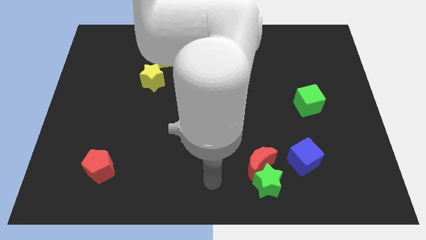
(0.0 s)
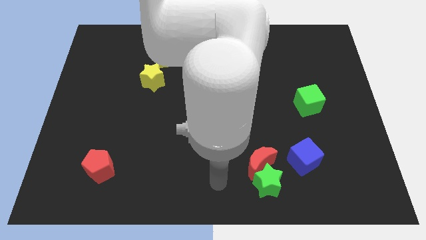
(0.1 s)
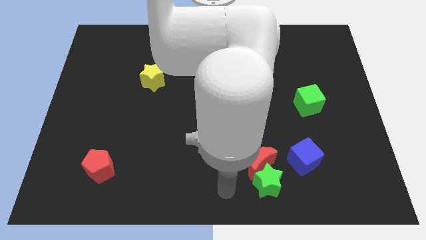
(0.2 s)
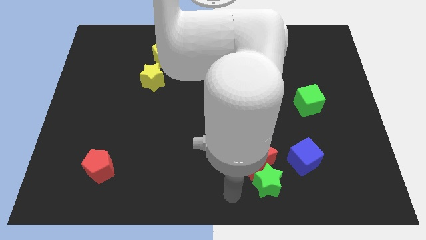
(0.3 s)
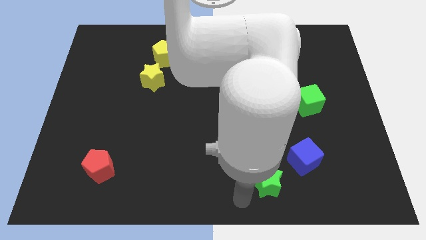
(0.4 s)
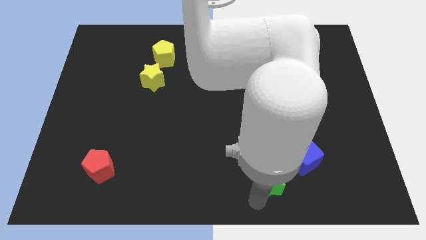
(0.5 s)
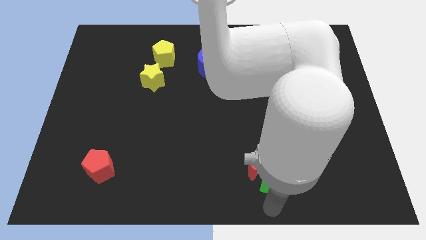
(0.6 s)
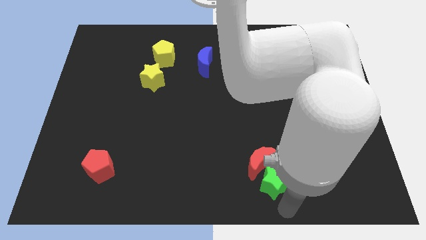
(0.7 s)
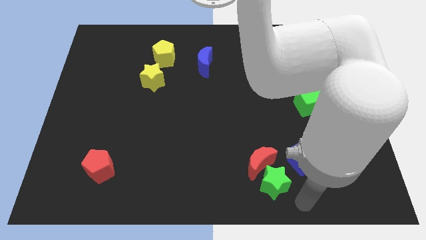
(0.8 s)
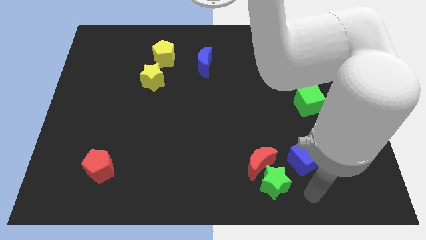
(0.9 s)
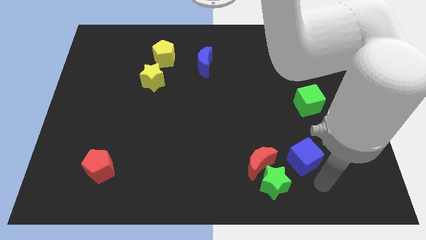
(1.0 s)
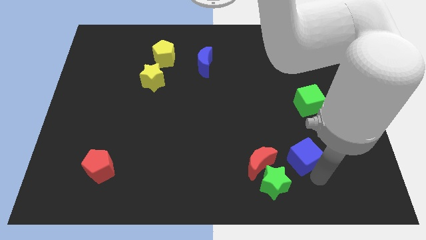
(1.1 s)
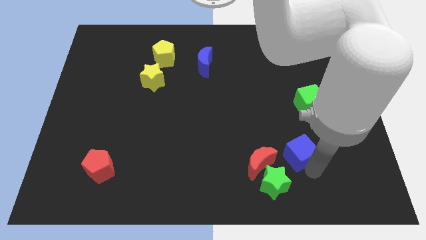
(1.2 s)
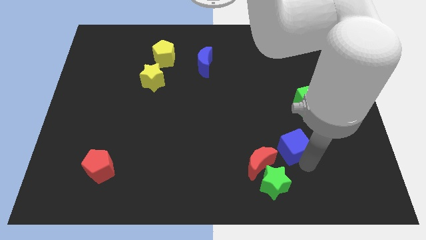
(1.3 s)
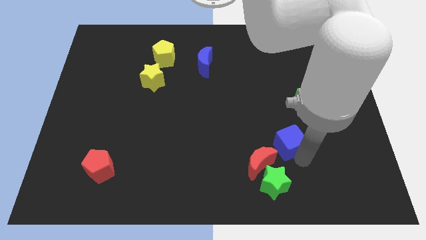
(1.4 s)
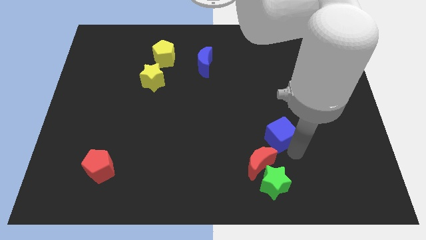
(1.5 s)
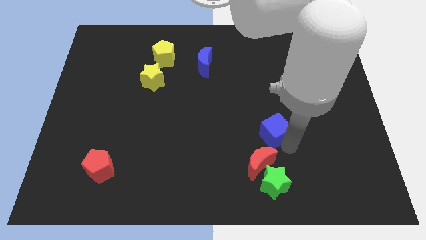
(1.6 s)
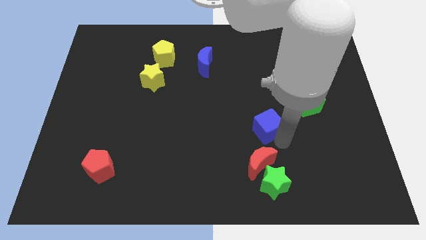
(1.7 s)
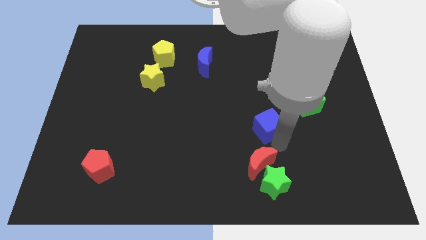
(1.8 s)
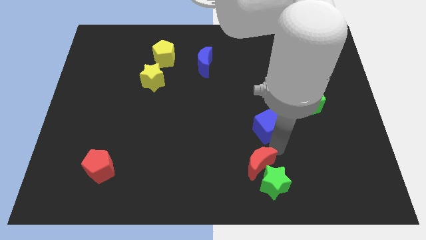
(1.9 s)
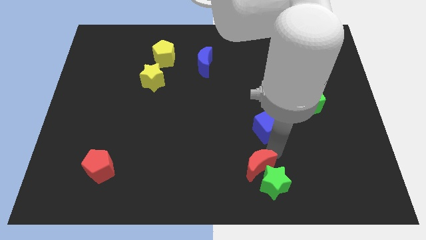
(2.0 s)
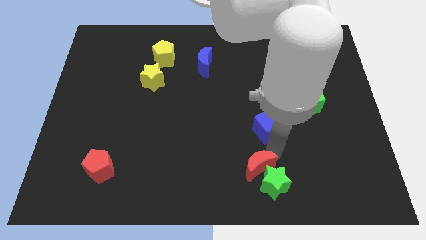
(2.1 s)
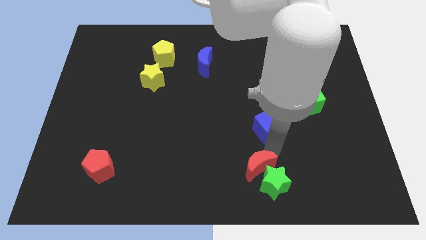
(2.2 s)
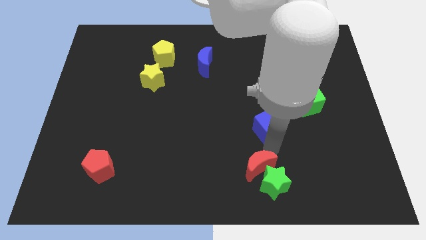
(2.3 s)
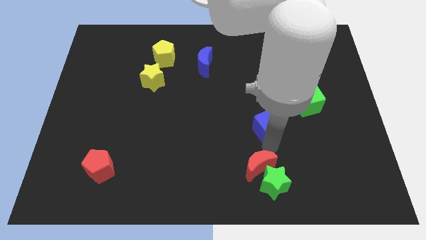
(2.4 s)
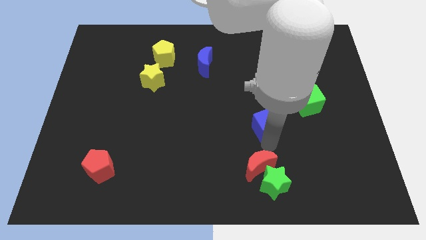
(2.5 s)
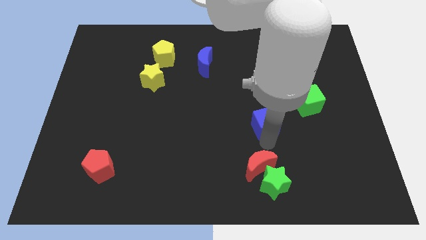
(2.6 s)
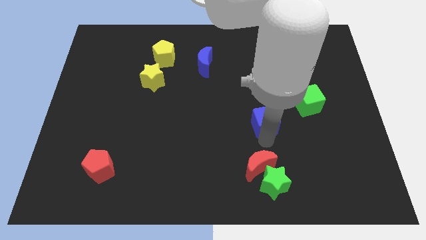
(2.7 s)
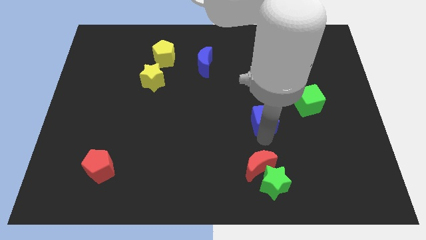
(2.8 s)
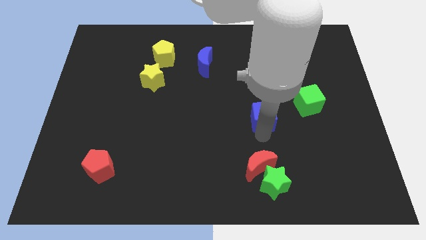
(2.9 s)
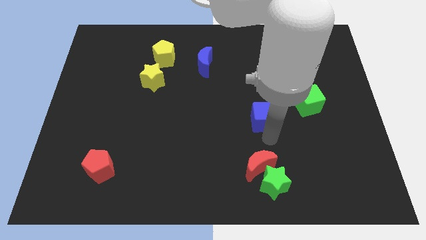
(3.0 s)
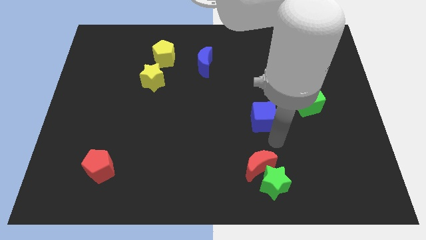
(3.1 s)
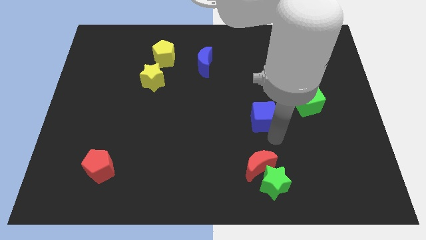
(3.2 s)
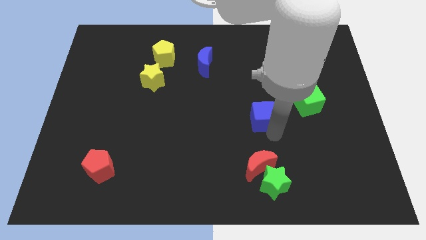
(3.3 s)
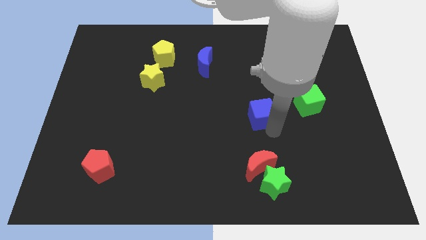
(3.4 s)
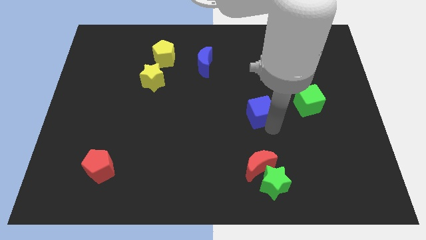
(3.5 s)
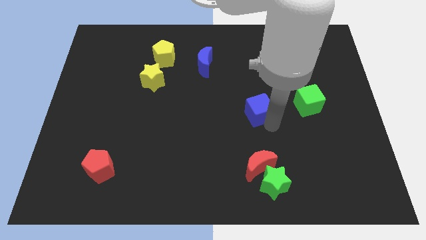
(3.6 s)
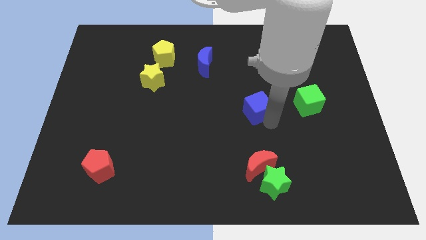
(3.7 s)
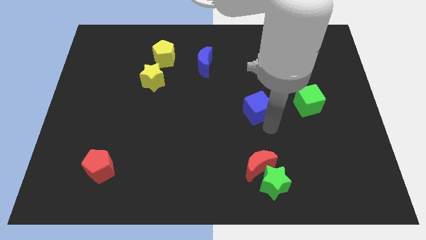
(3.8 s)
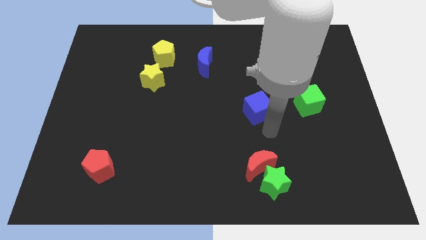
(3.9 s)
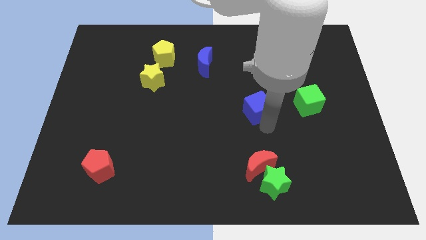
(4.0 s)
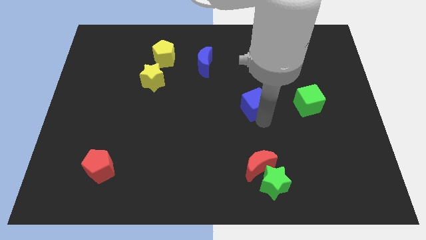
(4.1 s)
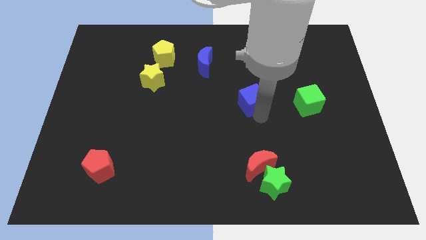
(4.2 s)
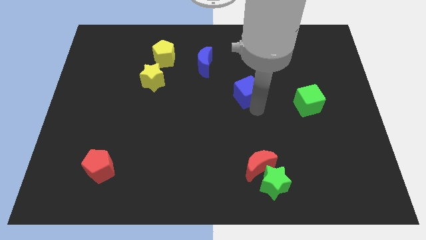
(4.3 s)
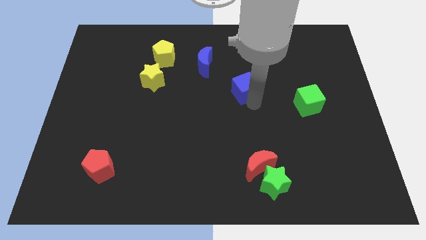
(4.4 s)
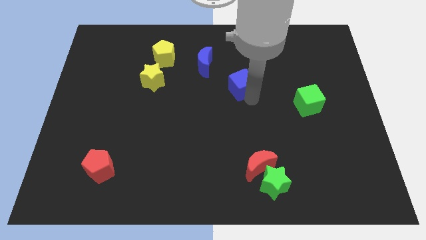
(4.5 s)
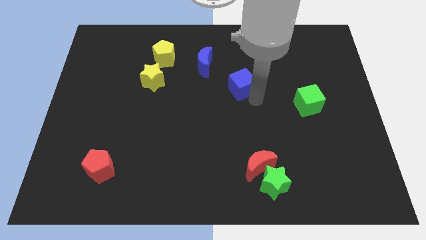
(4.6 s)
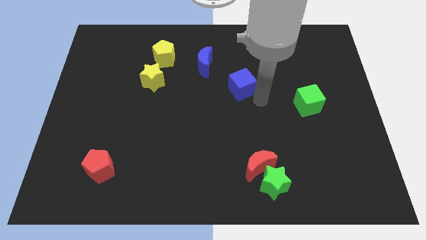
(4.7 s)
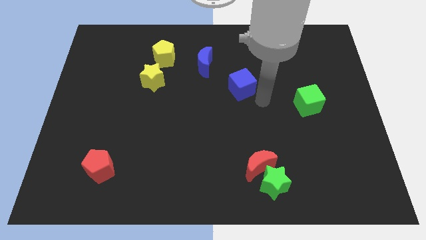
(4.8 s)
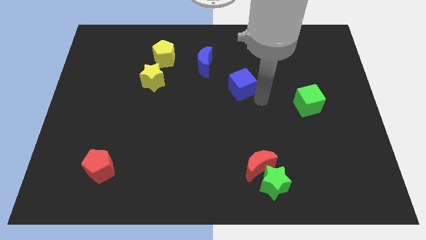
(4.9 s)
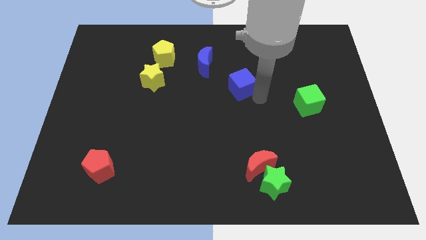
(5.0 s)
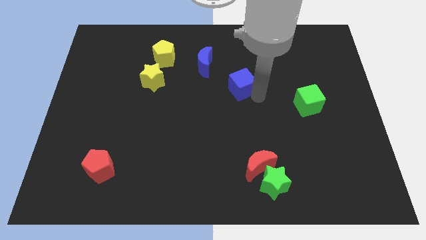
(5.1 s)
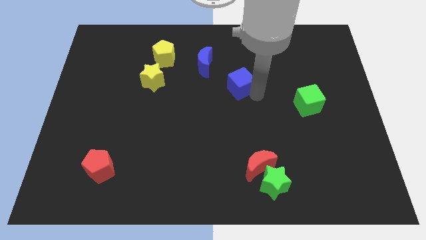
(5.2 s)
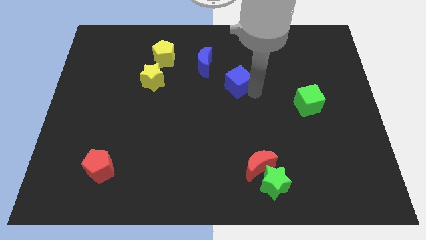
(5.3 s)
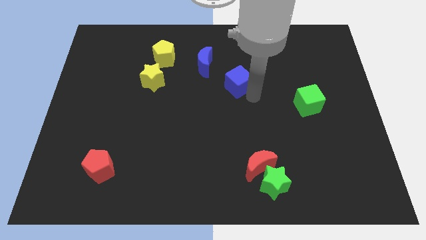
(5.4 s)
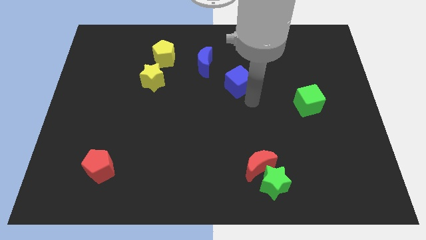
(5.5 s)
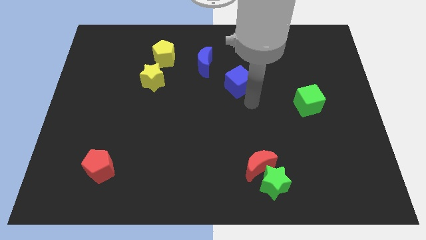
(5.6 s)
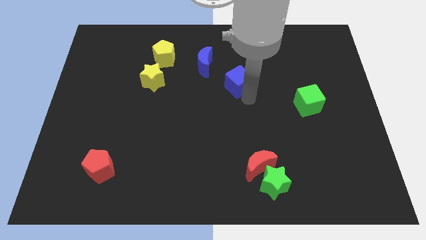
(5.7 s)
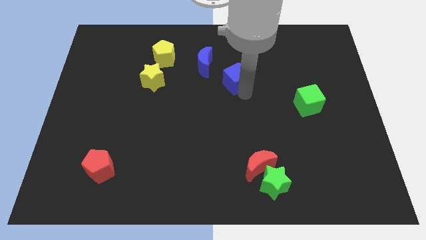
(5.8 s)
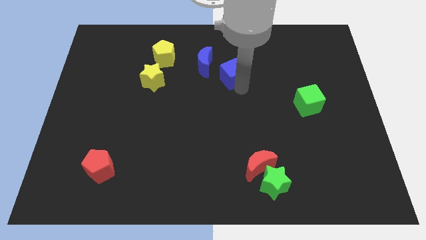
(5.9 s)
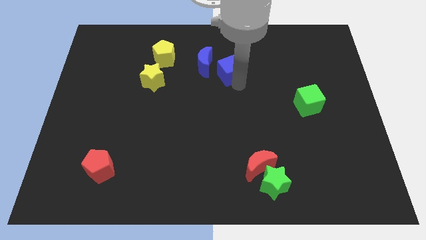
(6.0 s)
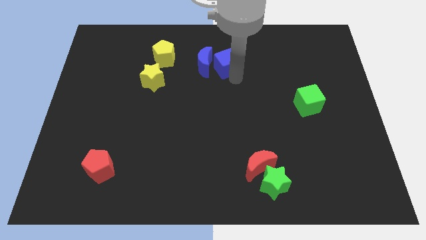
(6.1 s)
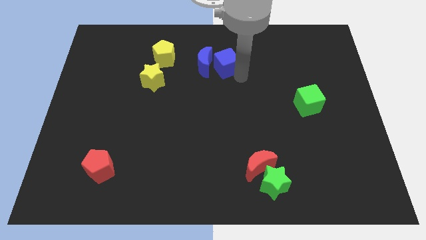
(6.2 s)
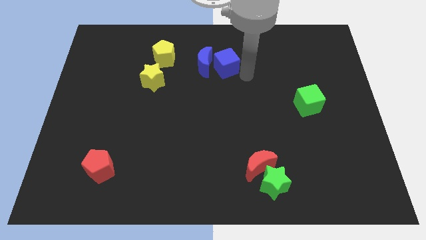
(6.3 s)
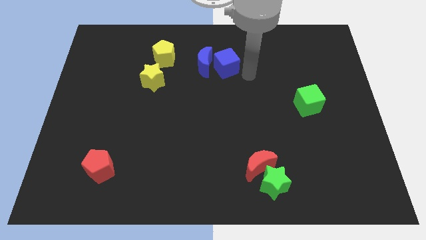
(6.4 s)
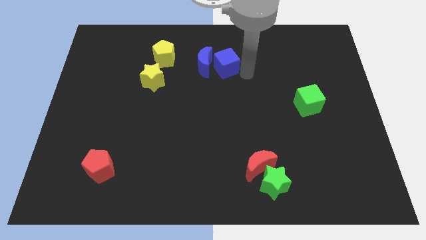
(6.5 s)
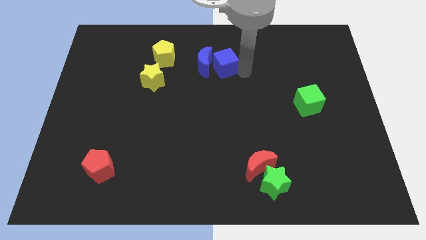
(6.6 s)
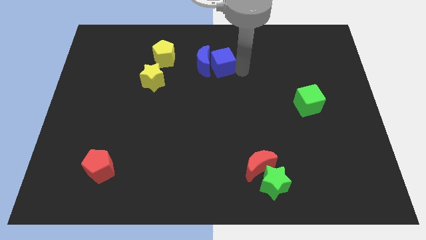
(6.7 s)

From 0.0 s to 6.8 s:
push the blue cube to the right side of the yellow pentagon

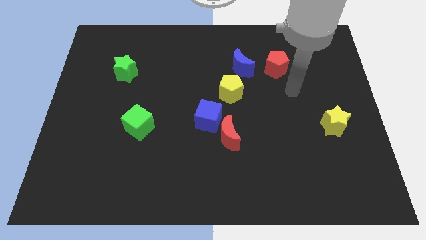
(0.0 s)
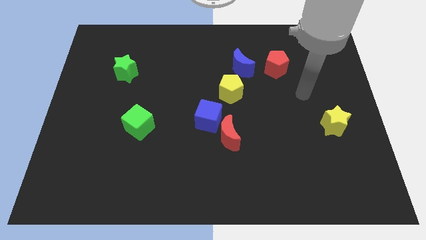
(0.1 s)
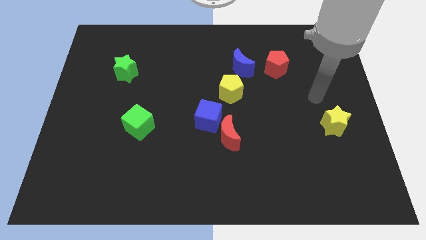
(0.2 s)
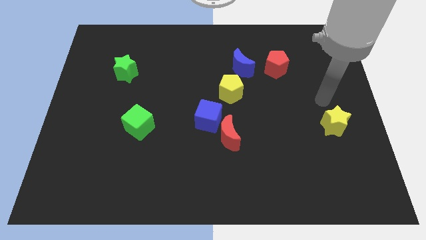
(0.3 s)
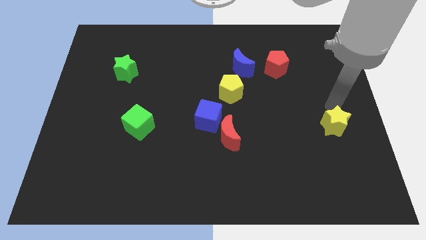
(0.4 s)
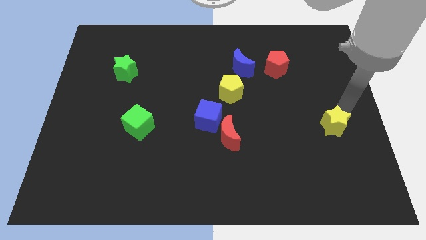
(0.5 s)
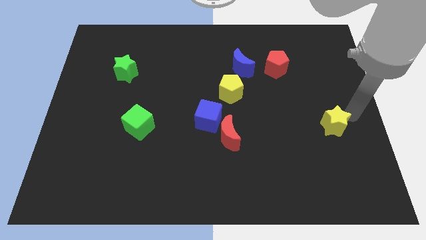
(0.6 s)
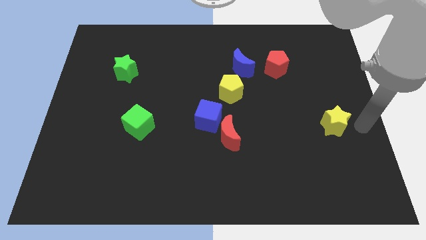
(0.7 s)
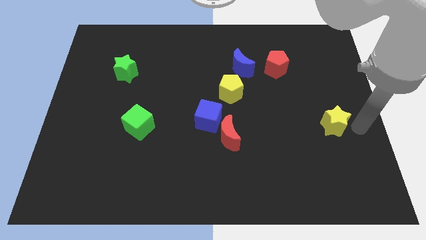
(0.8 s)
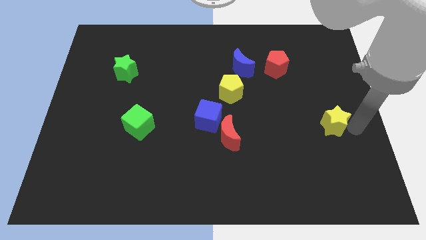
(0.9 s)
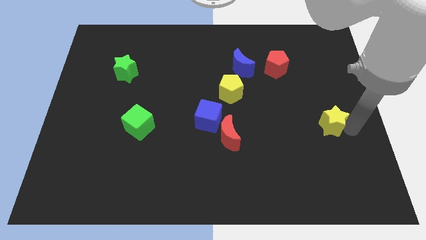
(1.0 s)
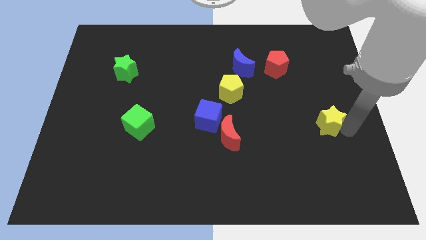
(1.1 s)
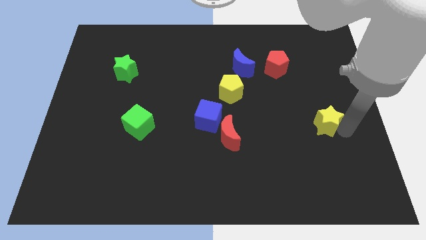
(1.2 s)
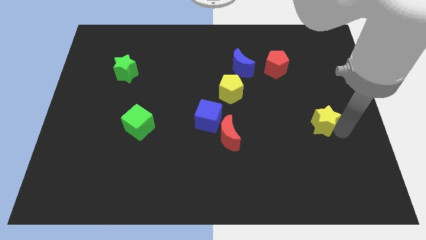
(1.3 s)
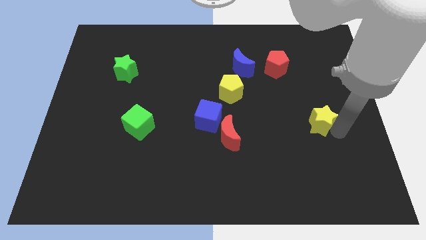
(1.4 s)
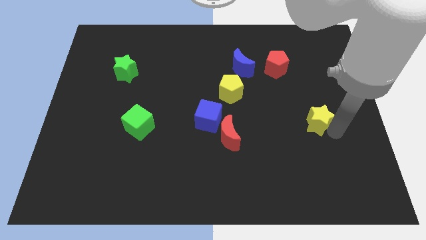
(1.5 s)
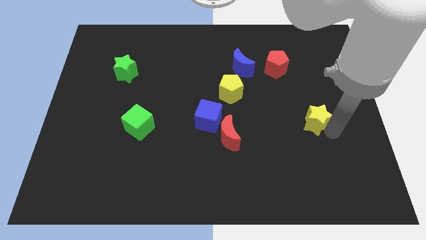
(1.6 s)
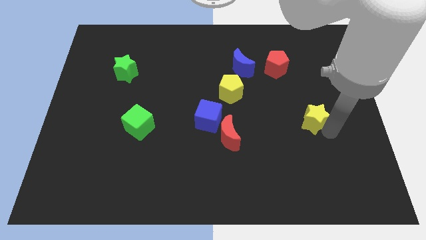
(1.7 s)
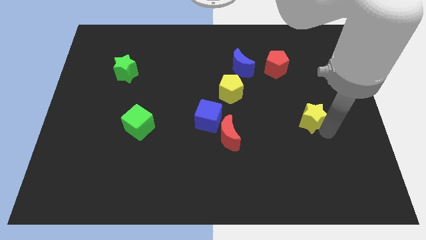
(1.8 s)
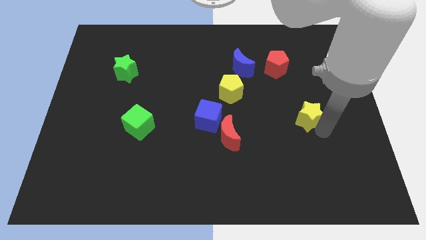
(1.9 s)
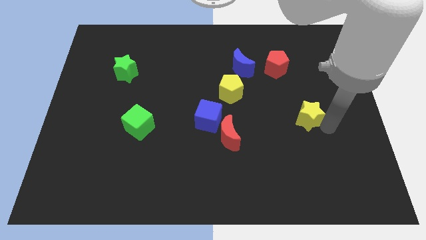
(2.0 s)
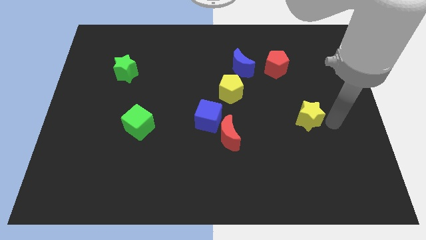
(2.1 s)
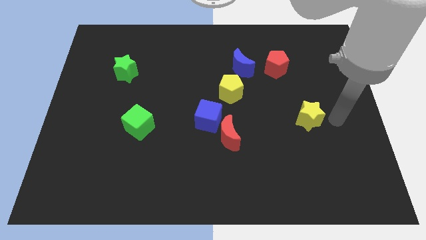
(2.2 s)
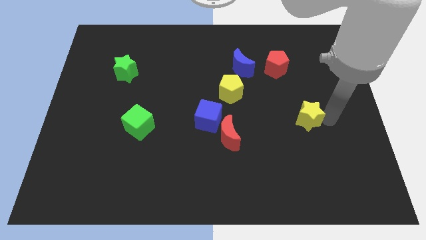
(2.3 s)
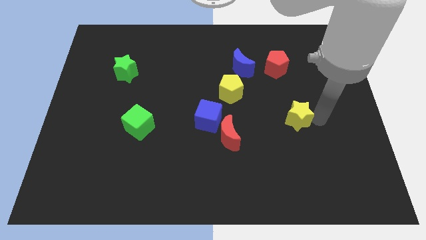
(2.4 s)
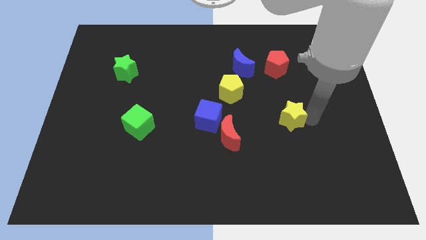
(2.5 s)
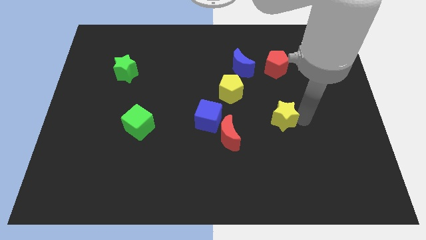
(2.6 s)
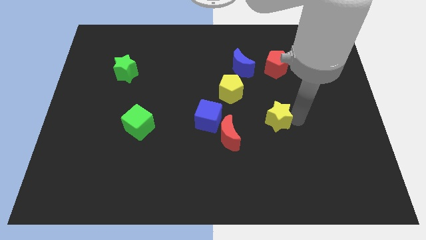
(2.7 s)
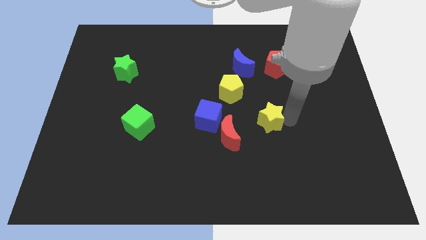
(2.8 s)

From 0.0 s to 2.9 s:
move the yellow star diagonally up and to the right of the red moon
